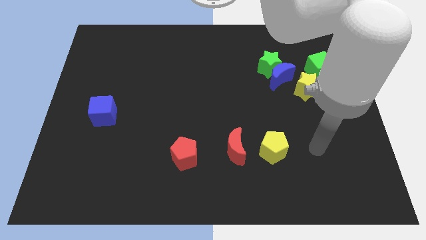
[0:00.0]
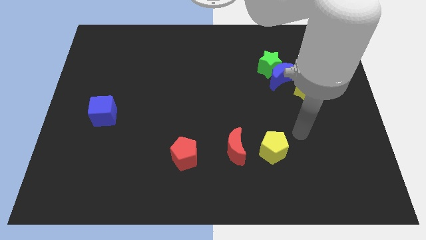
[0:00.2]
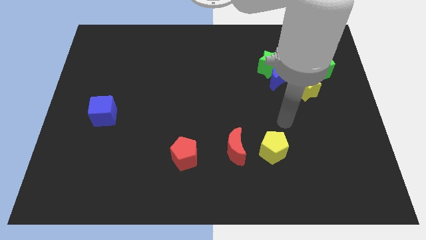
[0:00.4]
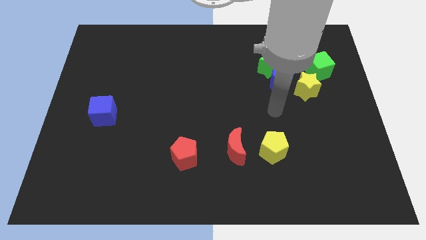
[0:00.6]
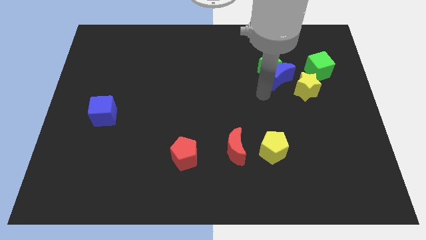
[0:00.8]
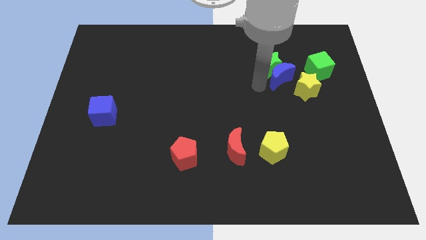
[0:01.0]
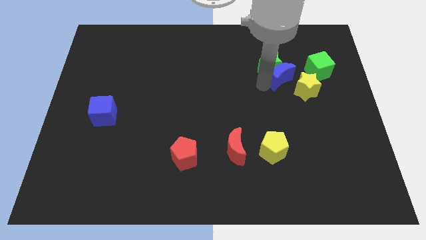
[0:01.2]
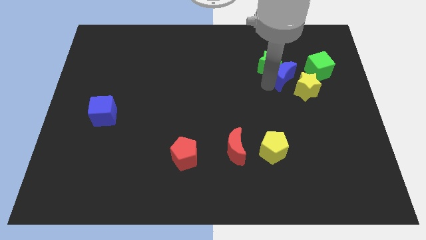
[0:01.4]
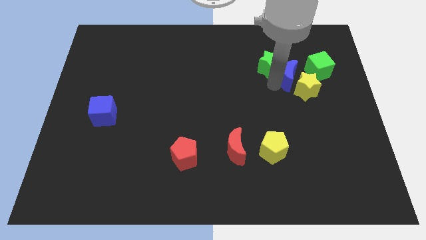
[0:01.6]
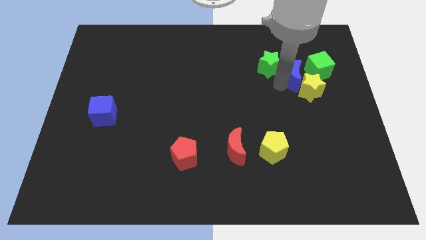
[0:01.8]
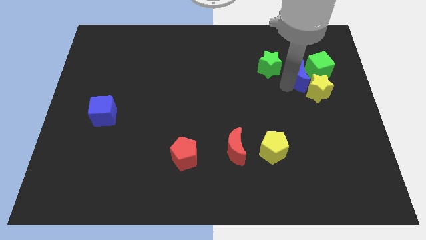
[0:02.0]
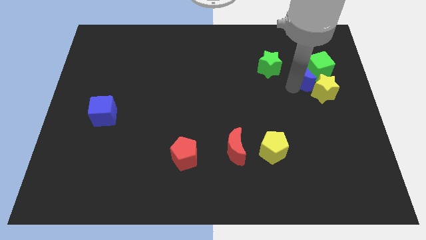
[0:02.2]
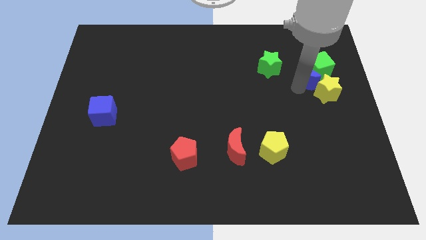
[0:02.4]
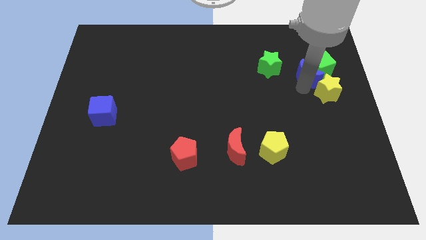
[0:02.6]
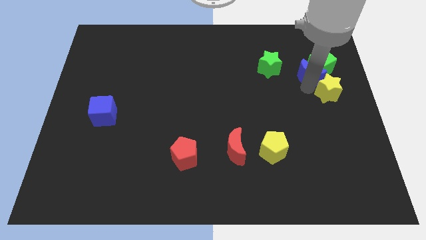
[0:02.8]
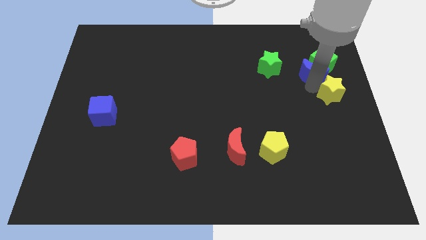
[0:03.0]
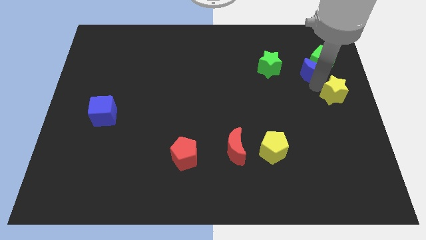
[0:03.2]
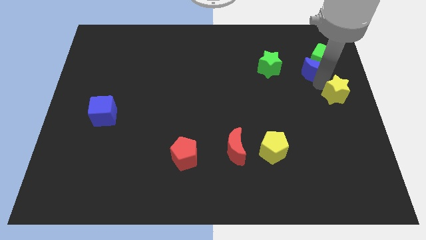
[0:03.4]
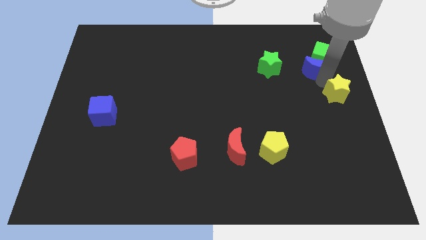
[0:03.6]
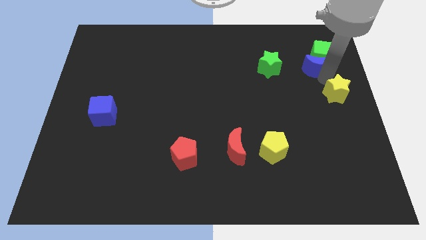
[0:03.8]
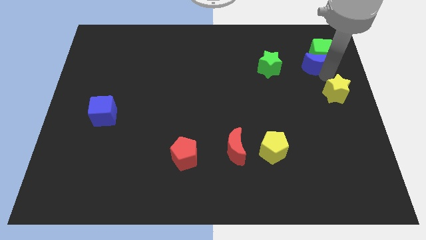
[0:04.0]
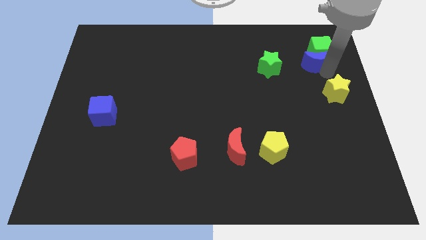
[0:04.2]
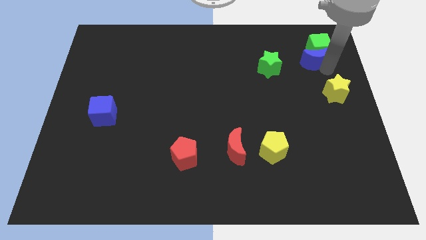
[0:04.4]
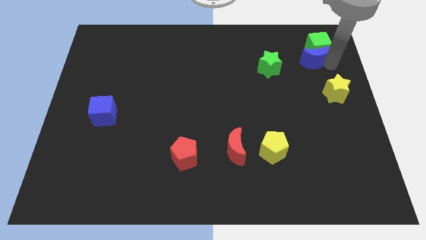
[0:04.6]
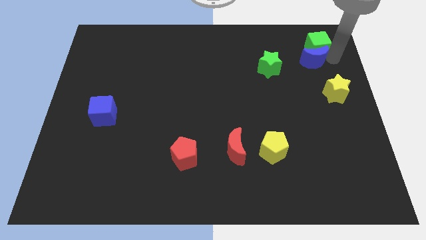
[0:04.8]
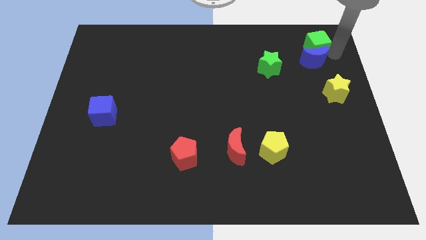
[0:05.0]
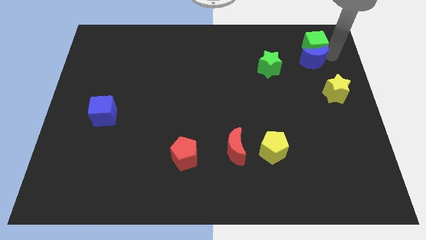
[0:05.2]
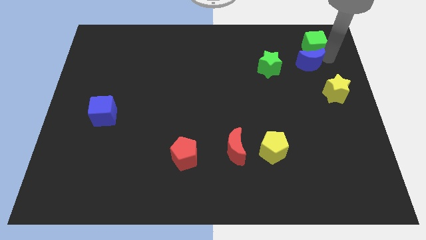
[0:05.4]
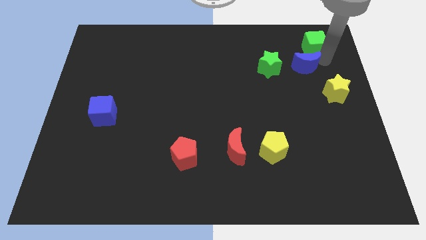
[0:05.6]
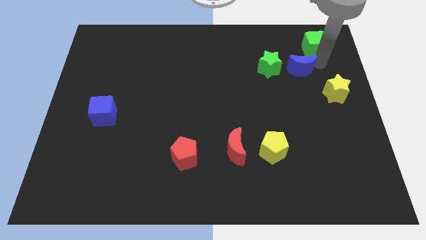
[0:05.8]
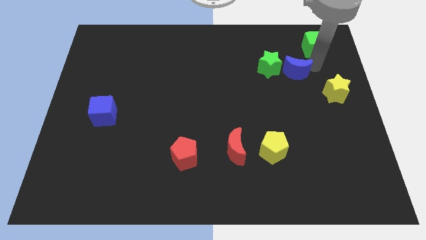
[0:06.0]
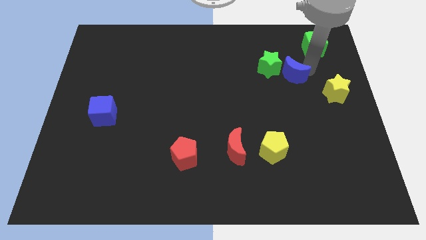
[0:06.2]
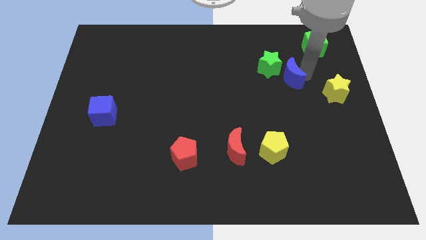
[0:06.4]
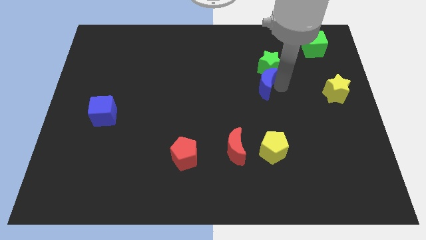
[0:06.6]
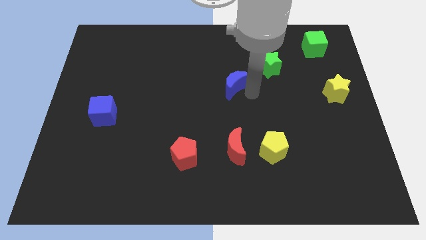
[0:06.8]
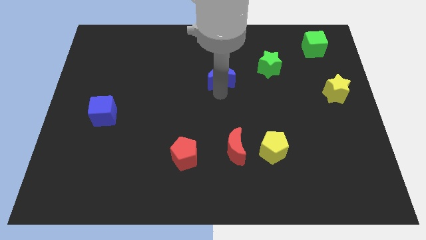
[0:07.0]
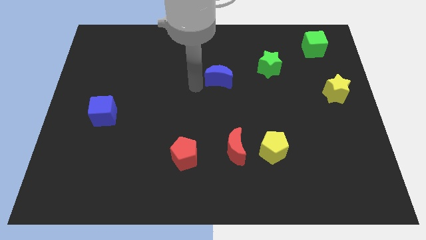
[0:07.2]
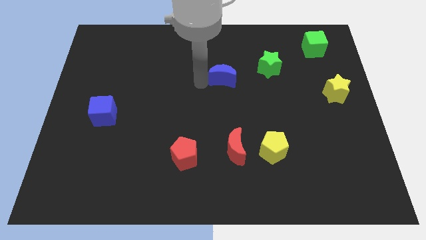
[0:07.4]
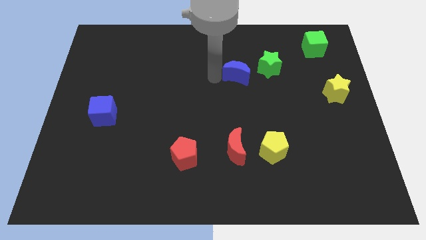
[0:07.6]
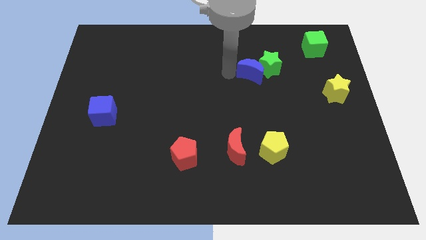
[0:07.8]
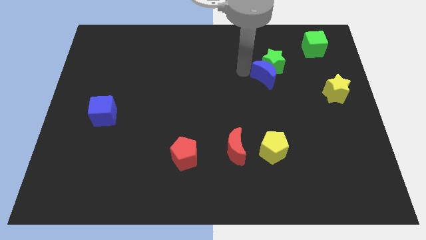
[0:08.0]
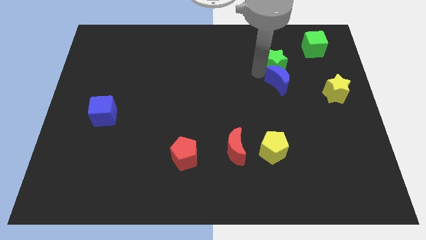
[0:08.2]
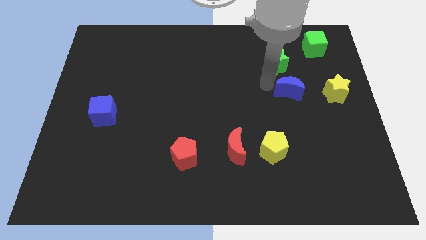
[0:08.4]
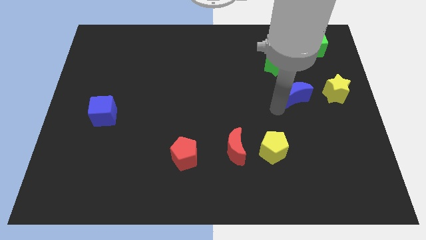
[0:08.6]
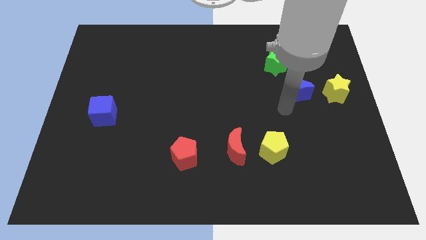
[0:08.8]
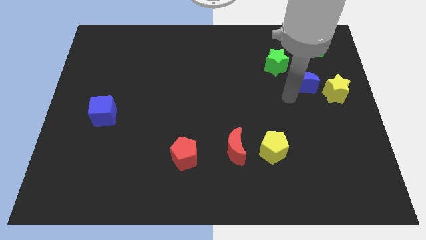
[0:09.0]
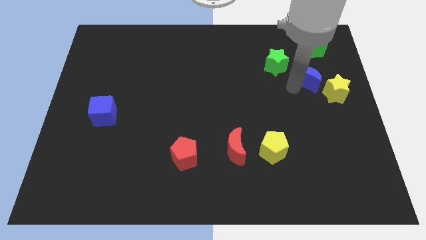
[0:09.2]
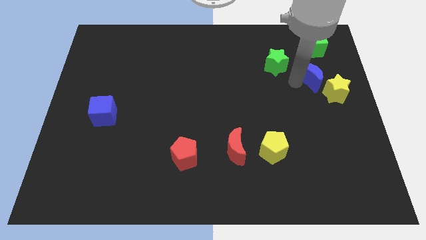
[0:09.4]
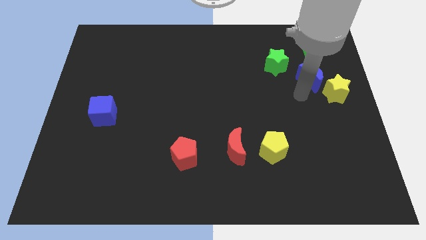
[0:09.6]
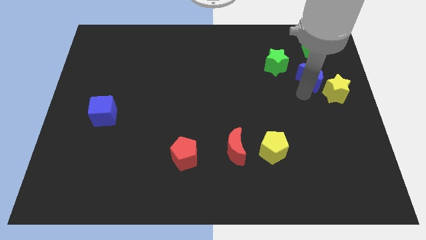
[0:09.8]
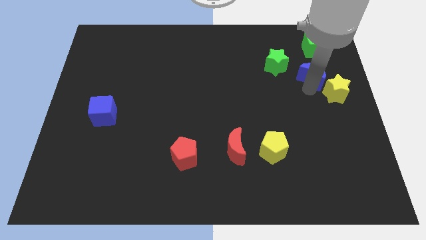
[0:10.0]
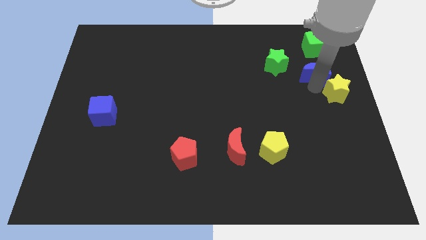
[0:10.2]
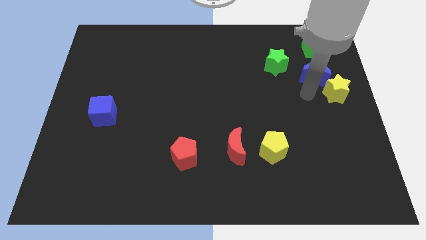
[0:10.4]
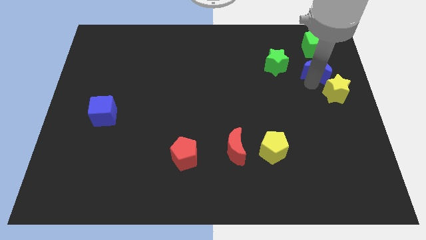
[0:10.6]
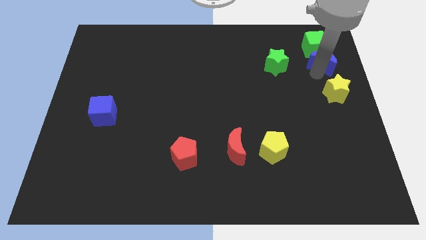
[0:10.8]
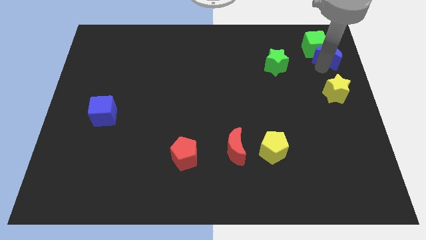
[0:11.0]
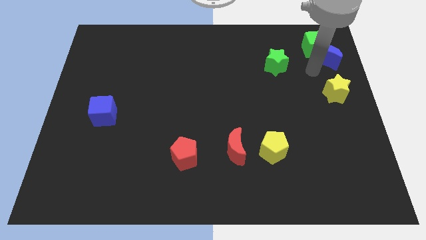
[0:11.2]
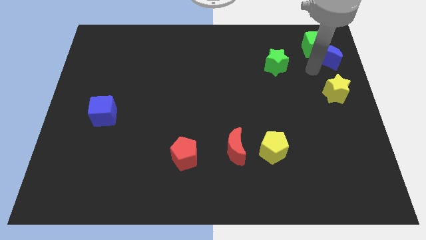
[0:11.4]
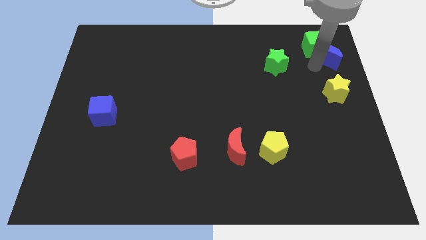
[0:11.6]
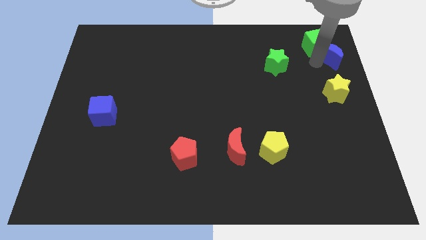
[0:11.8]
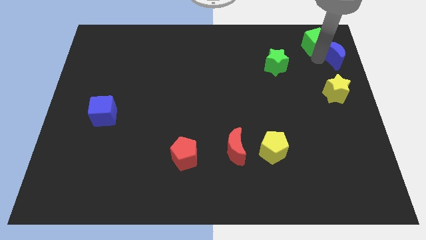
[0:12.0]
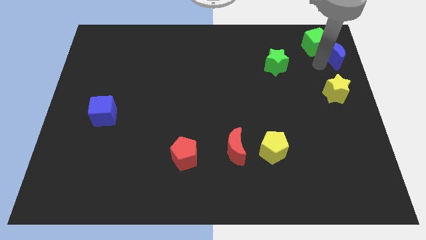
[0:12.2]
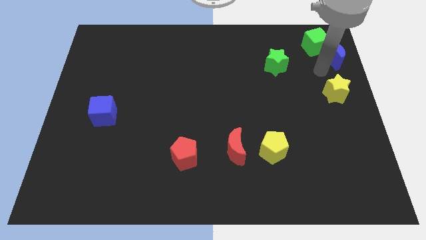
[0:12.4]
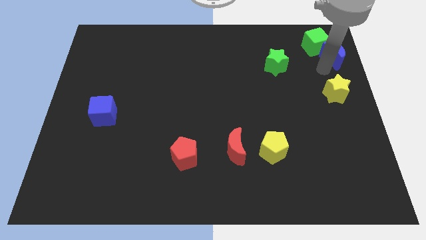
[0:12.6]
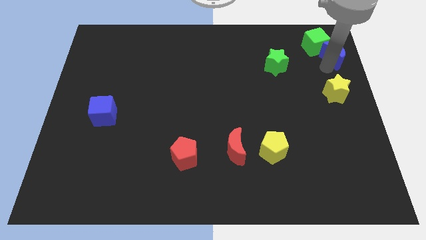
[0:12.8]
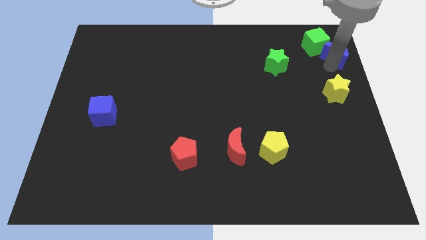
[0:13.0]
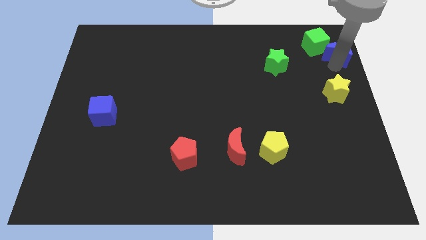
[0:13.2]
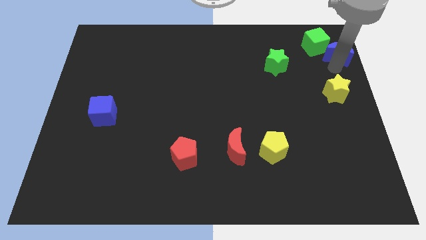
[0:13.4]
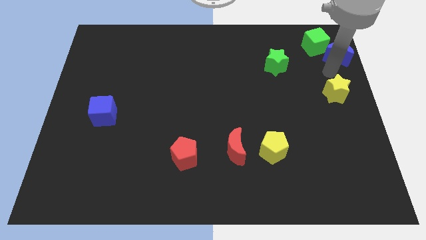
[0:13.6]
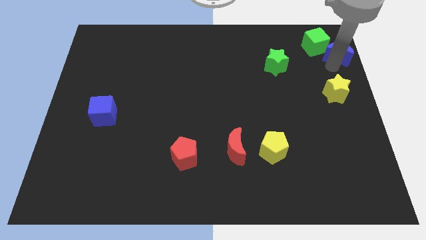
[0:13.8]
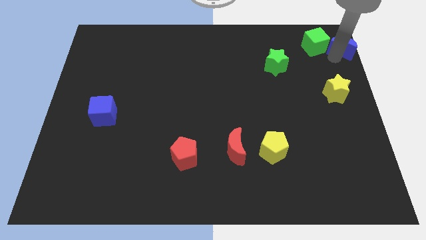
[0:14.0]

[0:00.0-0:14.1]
slide the blue moon to the top right
